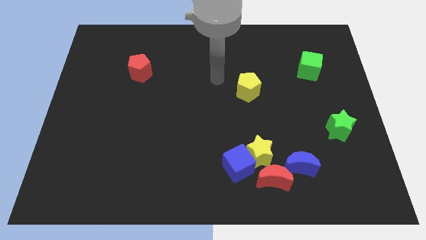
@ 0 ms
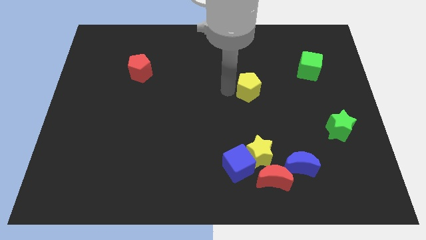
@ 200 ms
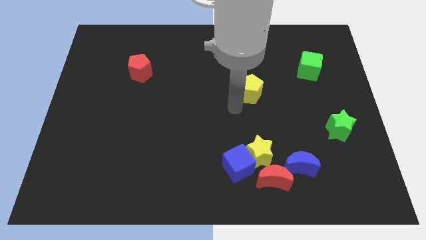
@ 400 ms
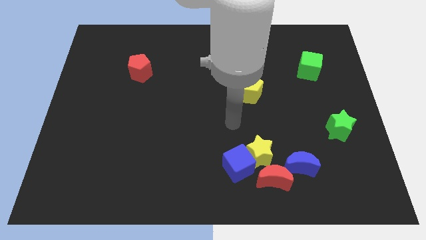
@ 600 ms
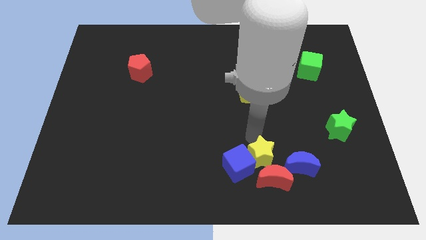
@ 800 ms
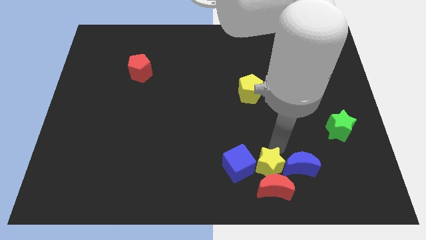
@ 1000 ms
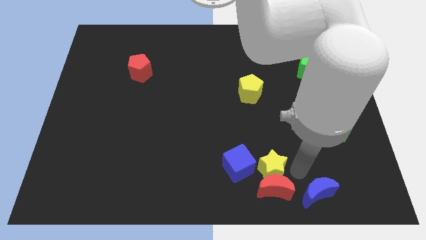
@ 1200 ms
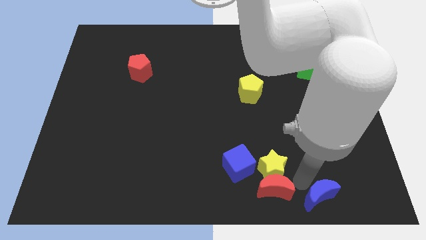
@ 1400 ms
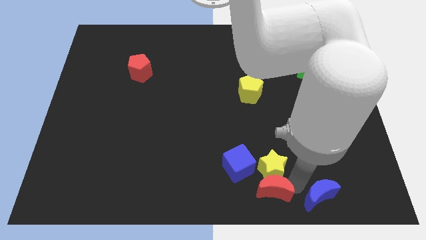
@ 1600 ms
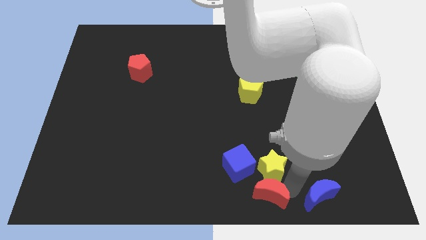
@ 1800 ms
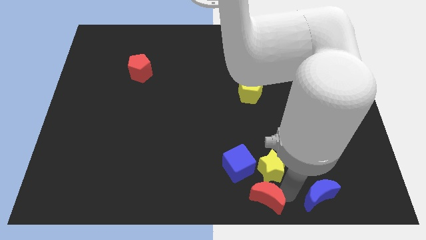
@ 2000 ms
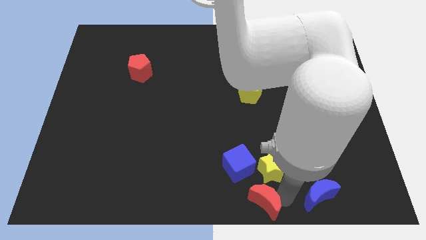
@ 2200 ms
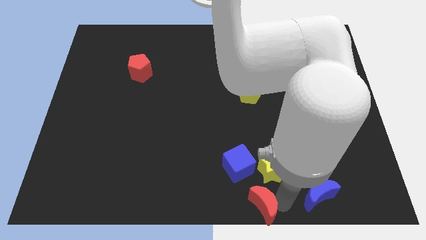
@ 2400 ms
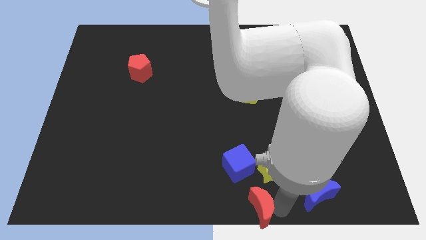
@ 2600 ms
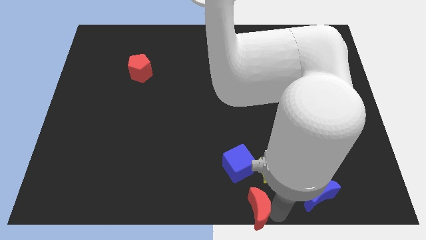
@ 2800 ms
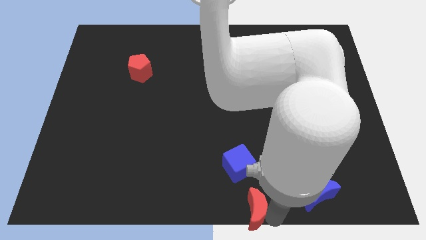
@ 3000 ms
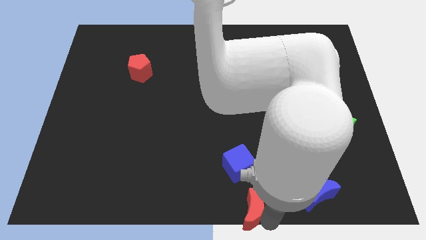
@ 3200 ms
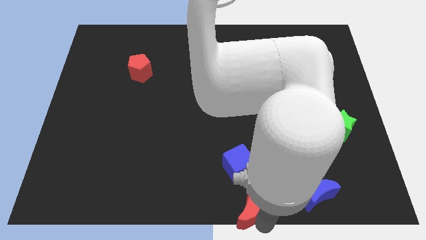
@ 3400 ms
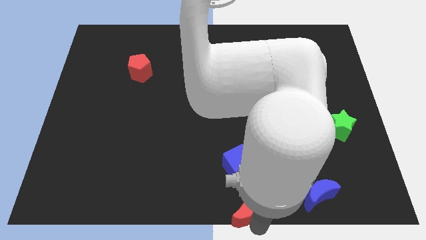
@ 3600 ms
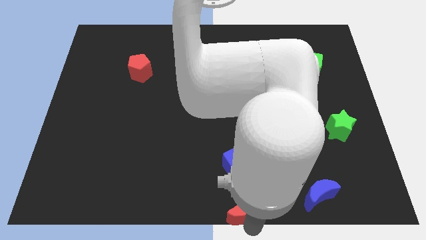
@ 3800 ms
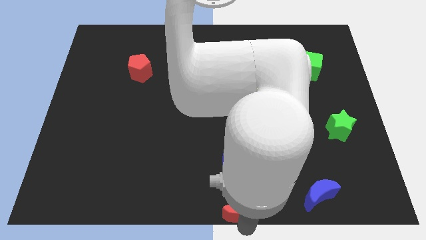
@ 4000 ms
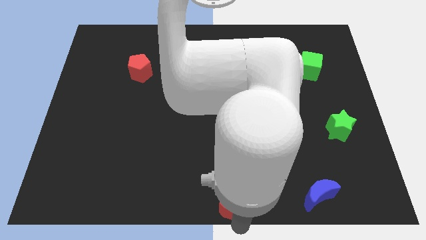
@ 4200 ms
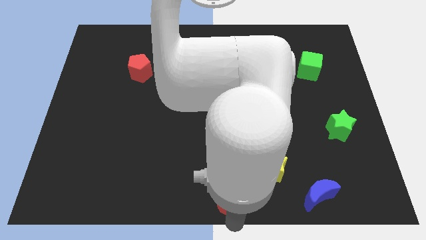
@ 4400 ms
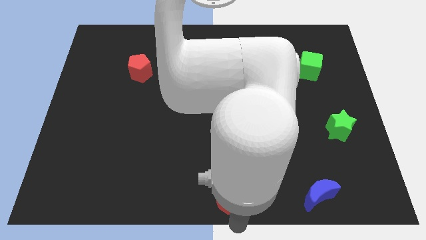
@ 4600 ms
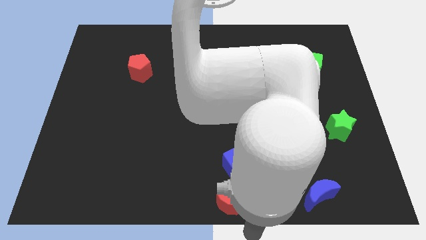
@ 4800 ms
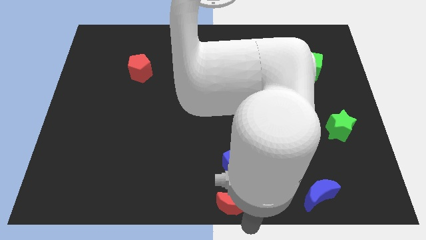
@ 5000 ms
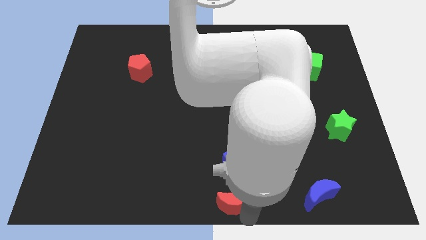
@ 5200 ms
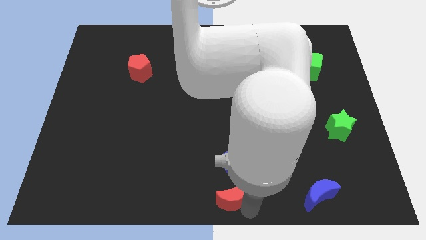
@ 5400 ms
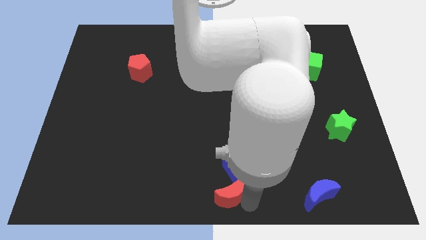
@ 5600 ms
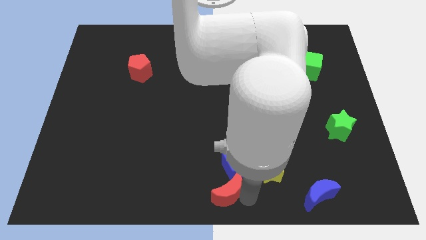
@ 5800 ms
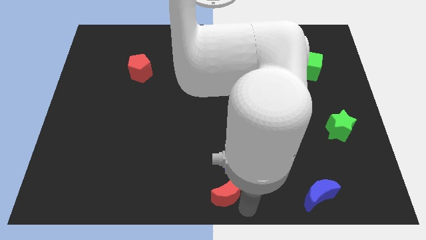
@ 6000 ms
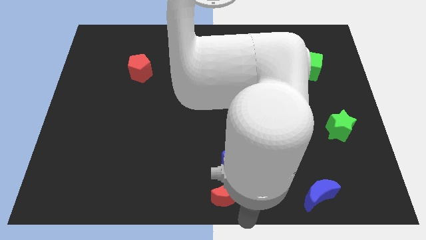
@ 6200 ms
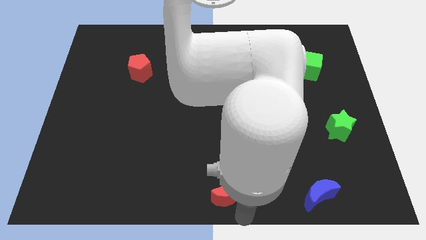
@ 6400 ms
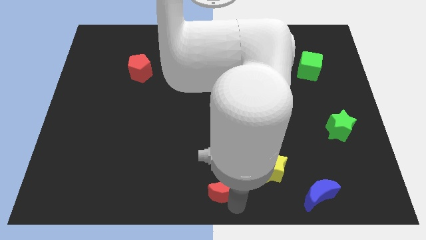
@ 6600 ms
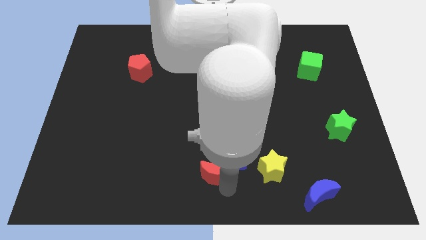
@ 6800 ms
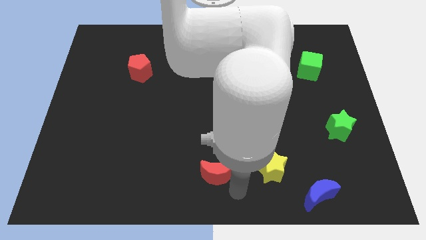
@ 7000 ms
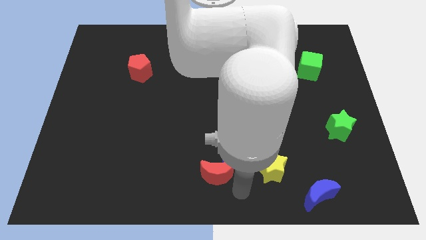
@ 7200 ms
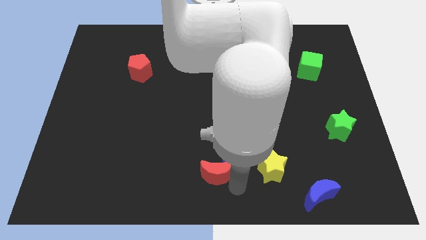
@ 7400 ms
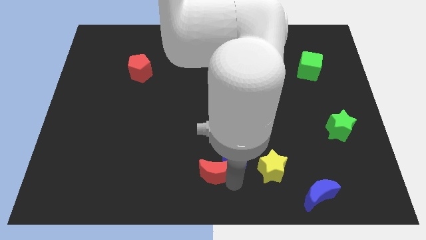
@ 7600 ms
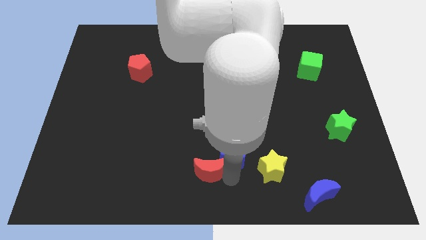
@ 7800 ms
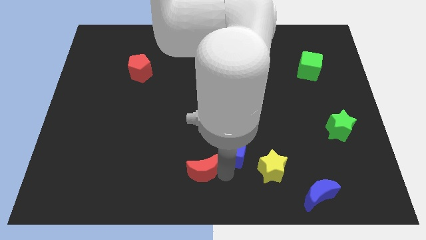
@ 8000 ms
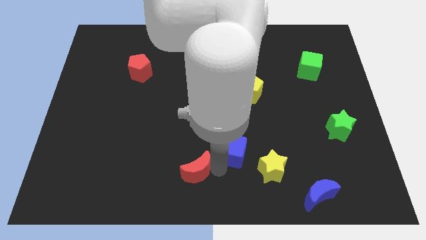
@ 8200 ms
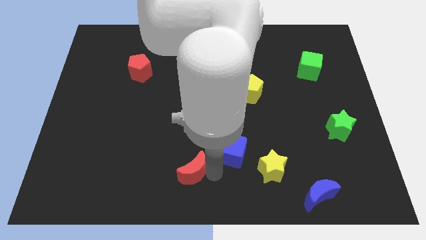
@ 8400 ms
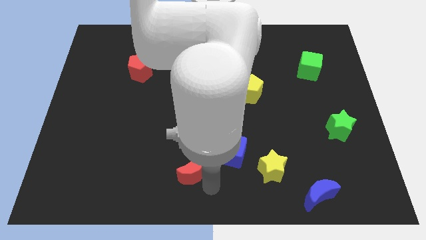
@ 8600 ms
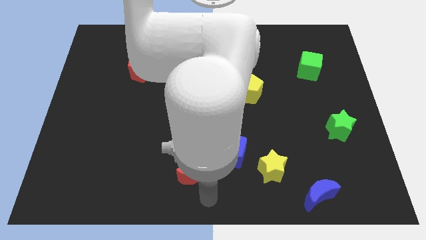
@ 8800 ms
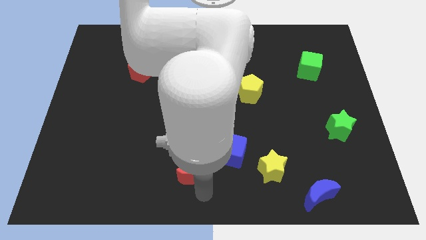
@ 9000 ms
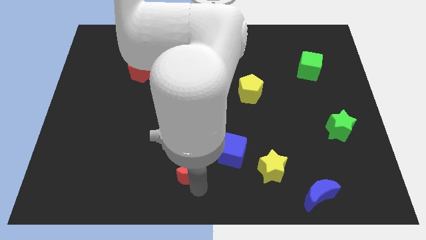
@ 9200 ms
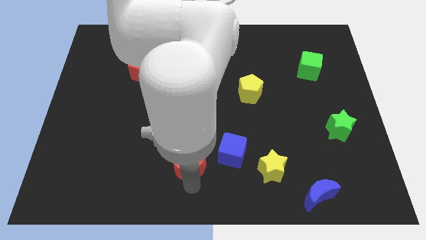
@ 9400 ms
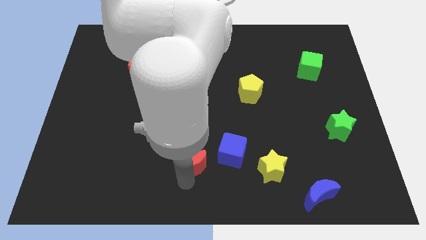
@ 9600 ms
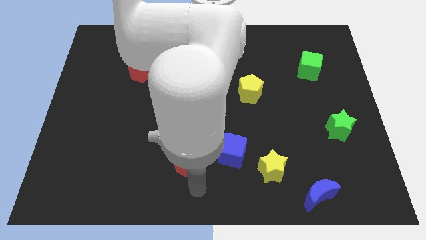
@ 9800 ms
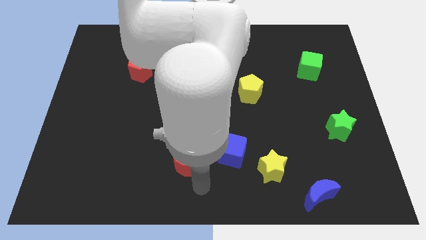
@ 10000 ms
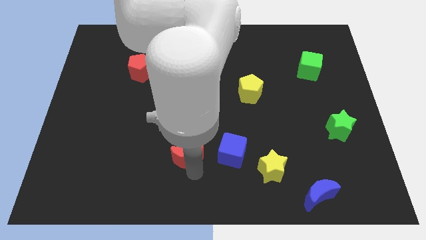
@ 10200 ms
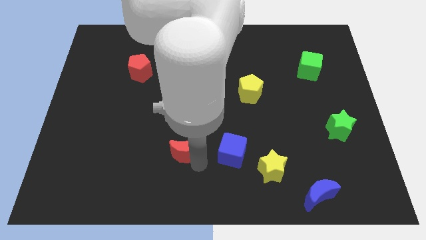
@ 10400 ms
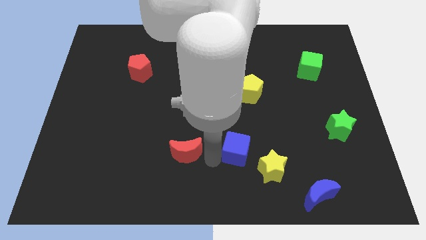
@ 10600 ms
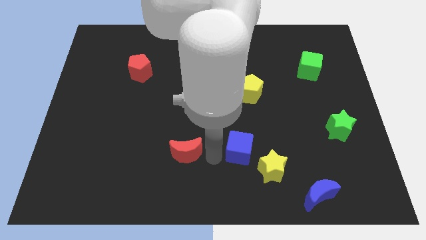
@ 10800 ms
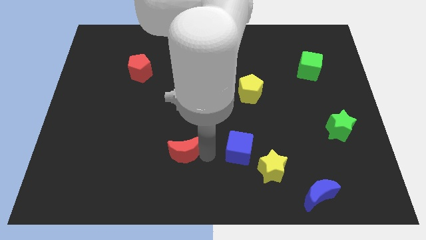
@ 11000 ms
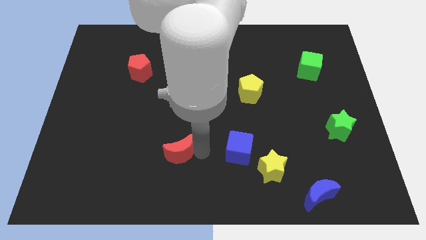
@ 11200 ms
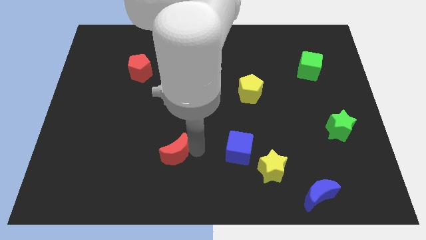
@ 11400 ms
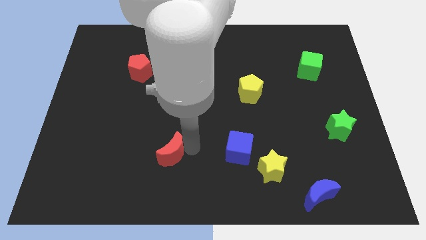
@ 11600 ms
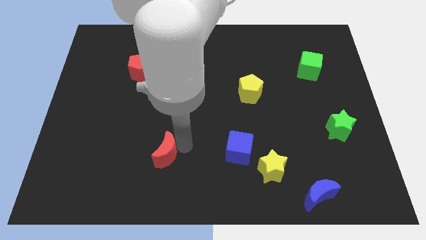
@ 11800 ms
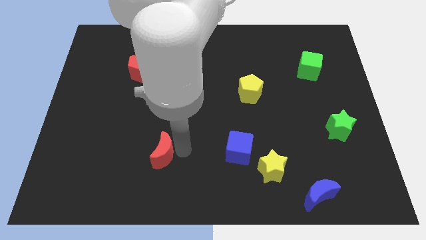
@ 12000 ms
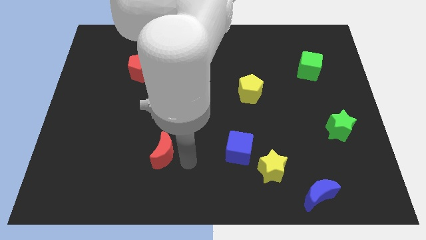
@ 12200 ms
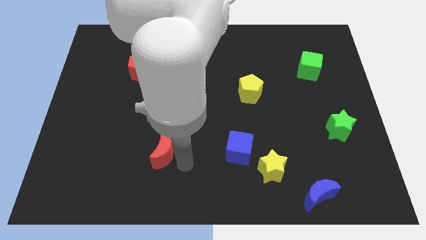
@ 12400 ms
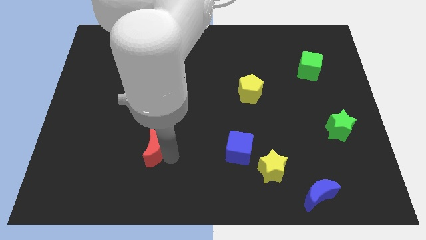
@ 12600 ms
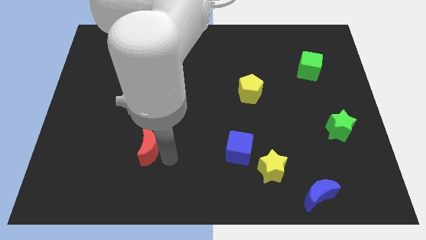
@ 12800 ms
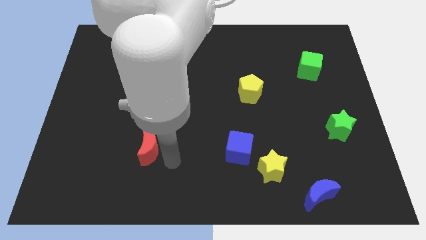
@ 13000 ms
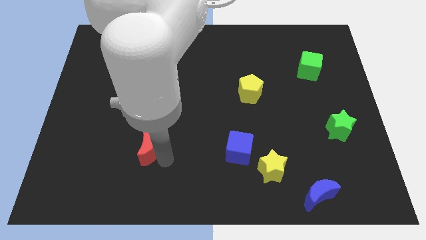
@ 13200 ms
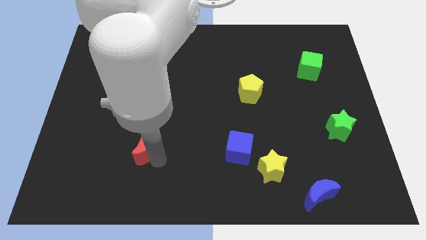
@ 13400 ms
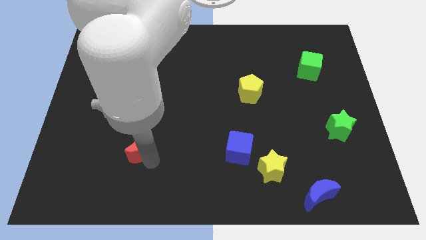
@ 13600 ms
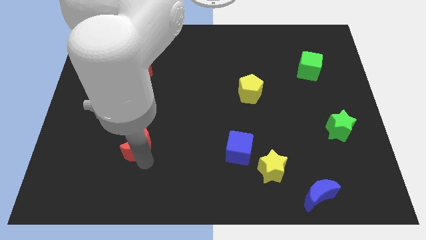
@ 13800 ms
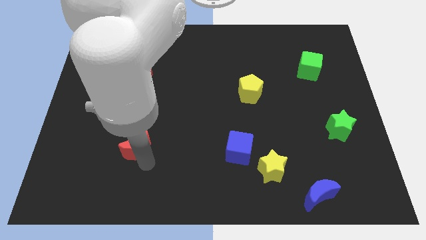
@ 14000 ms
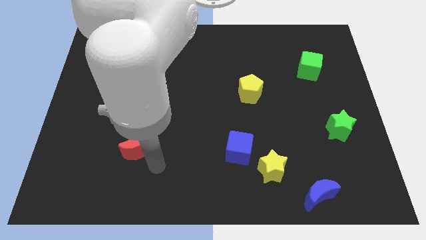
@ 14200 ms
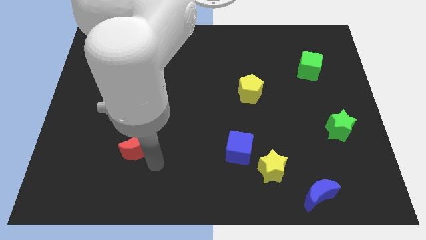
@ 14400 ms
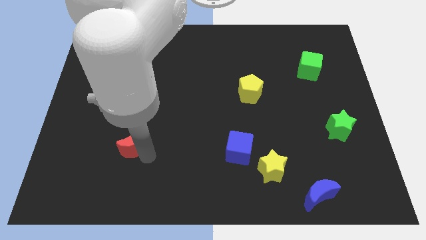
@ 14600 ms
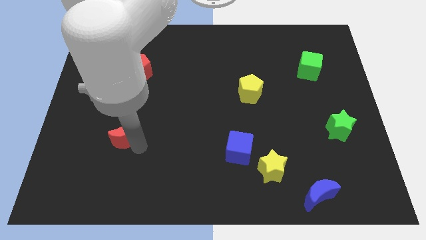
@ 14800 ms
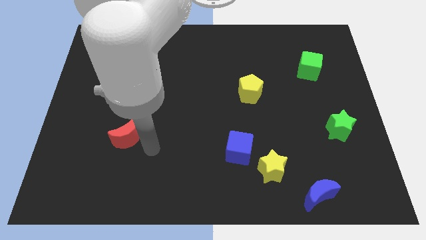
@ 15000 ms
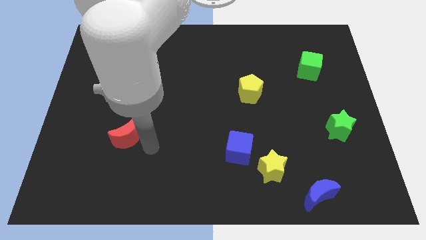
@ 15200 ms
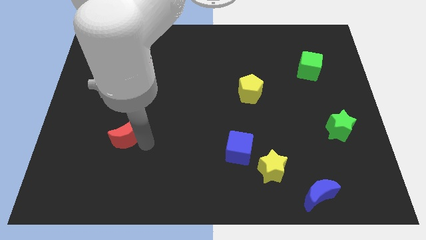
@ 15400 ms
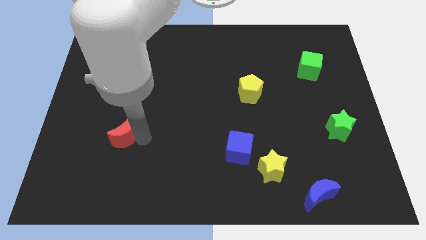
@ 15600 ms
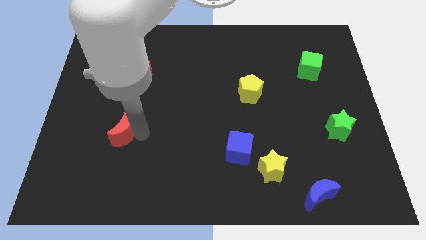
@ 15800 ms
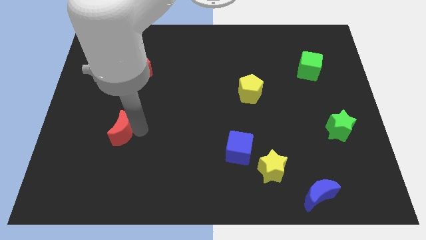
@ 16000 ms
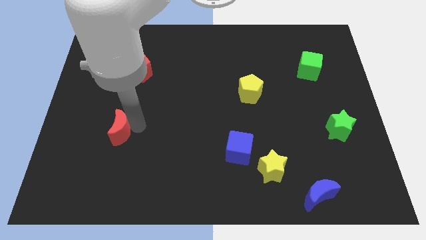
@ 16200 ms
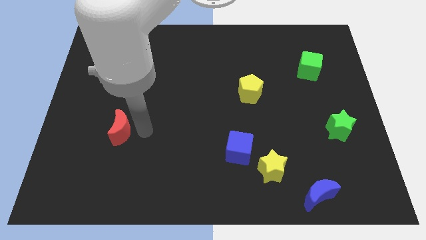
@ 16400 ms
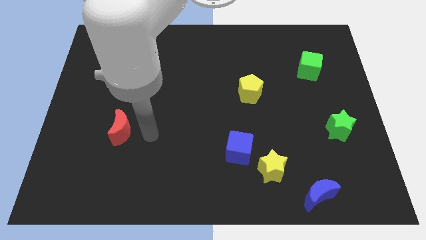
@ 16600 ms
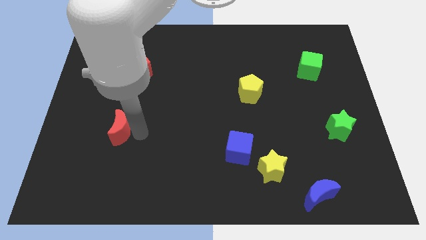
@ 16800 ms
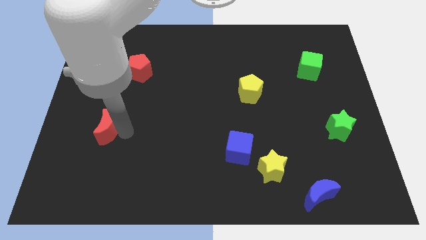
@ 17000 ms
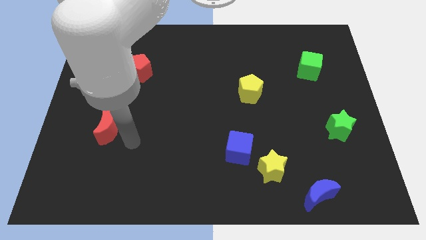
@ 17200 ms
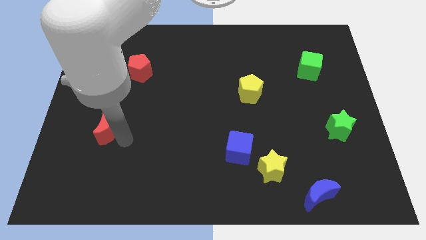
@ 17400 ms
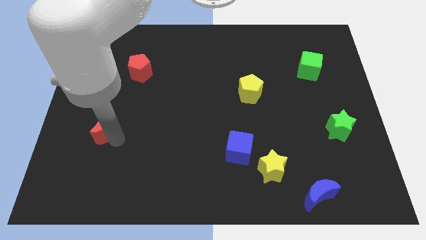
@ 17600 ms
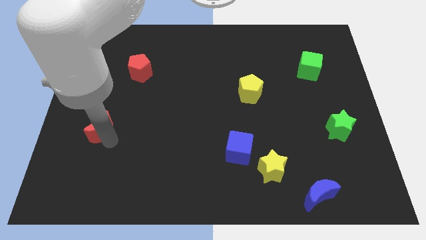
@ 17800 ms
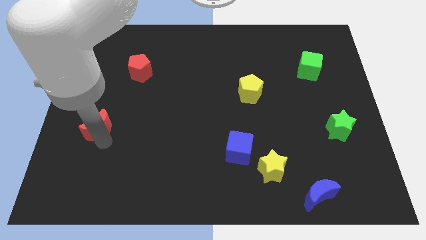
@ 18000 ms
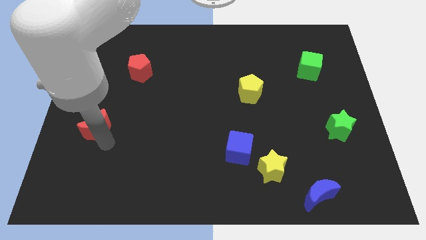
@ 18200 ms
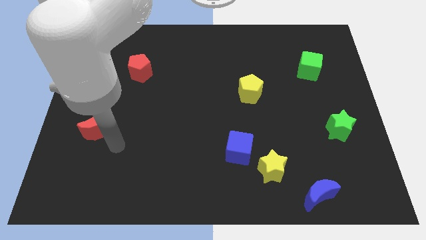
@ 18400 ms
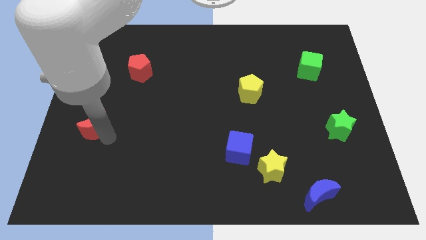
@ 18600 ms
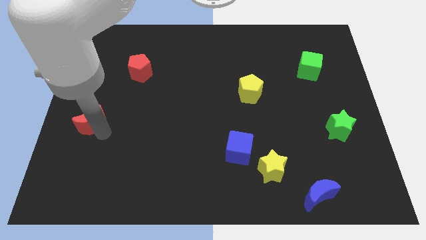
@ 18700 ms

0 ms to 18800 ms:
push the red moon to the left side of the board
